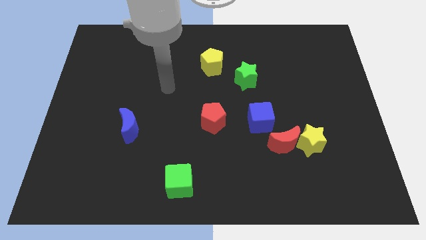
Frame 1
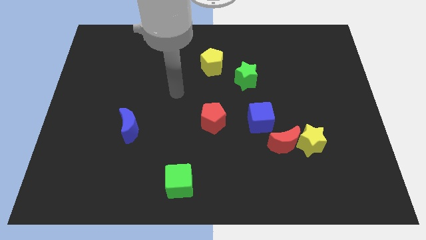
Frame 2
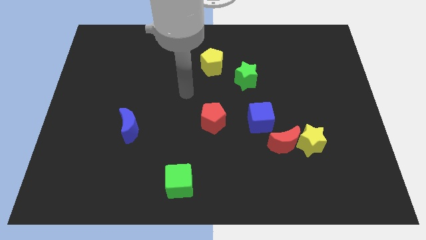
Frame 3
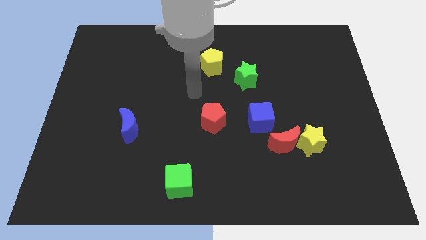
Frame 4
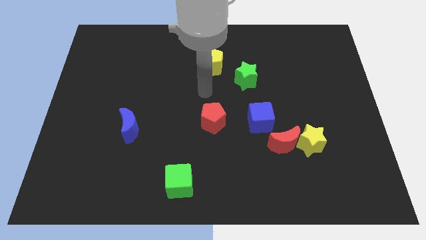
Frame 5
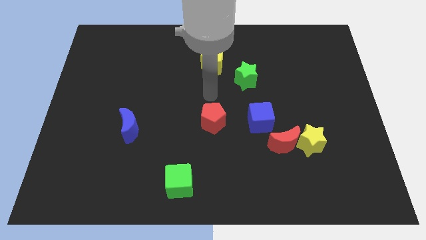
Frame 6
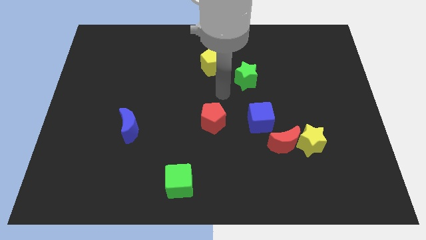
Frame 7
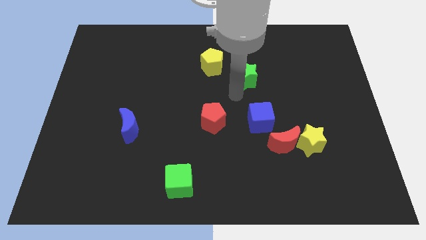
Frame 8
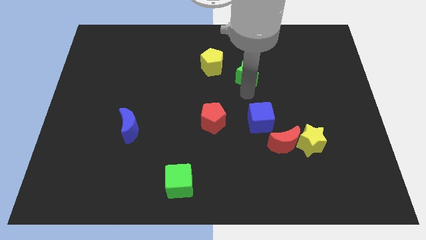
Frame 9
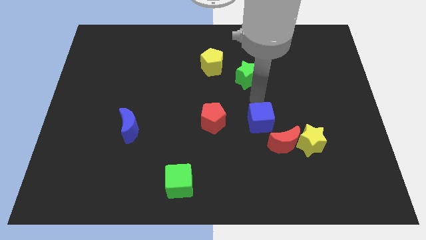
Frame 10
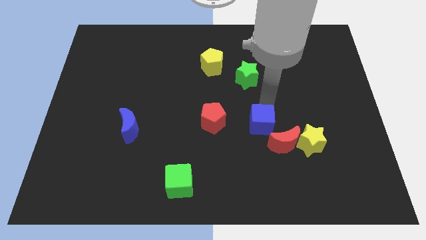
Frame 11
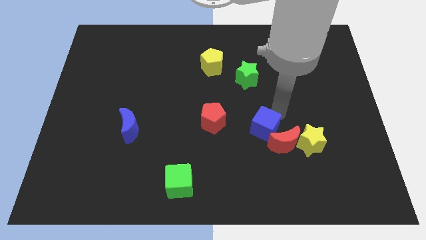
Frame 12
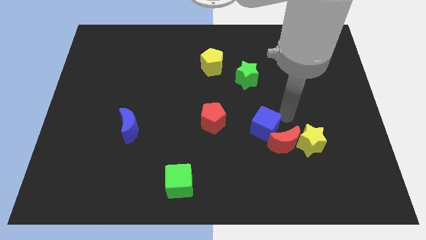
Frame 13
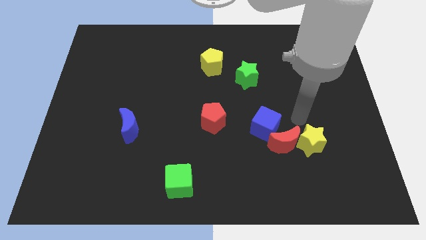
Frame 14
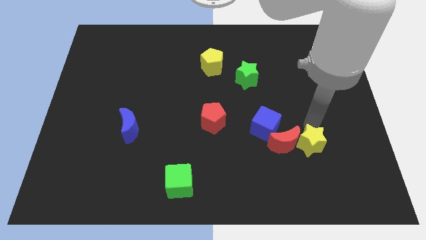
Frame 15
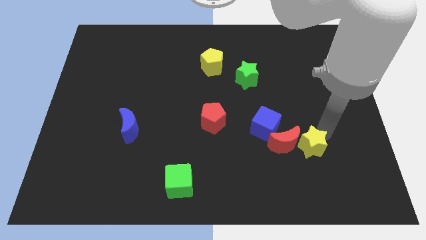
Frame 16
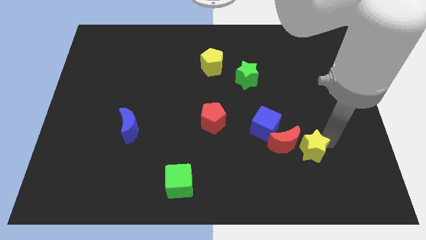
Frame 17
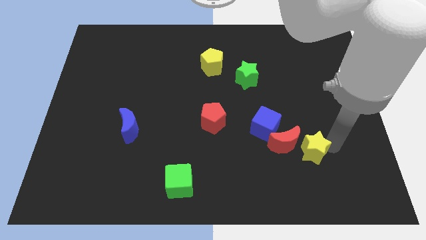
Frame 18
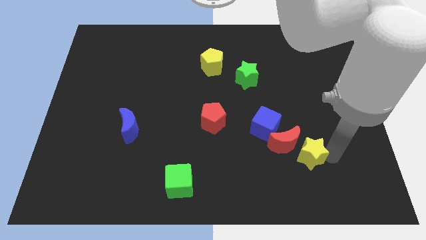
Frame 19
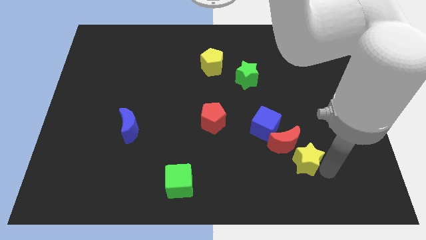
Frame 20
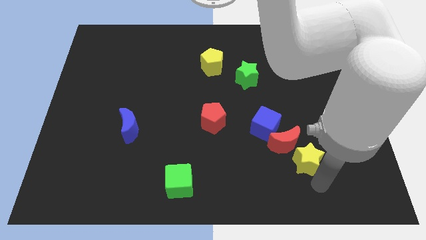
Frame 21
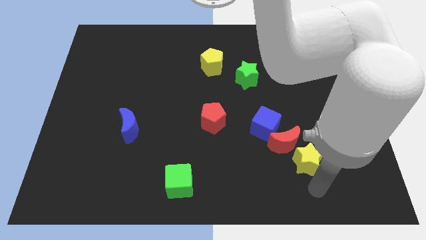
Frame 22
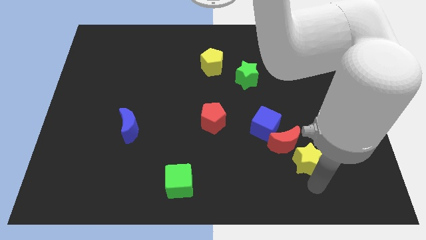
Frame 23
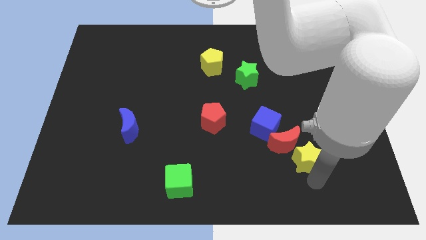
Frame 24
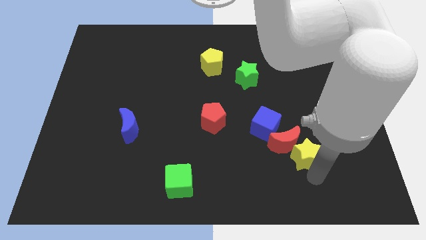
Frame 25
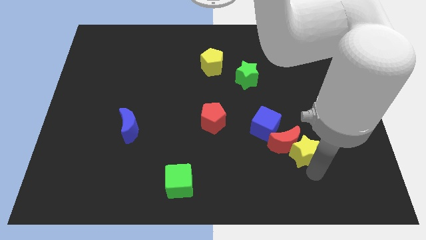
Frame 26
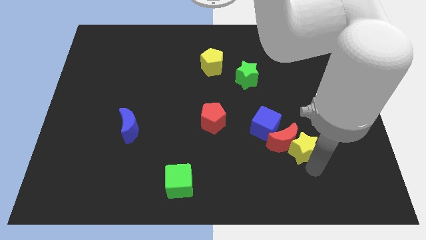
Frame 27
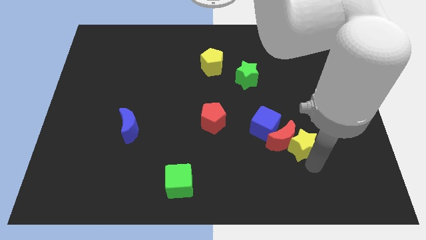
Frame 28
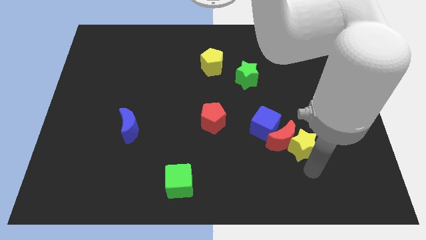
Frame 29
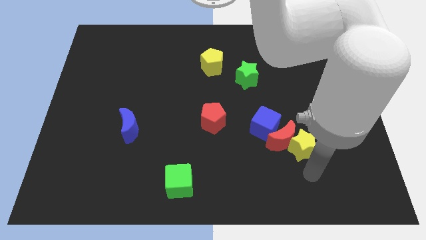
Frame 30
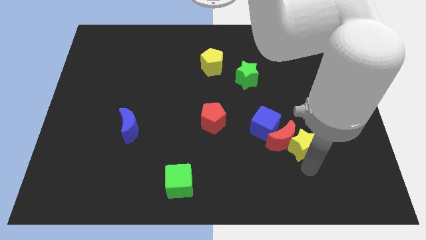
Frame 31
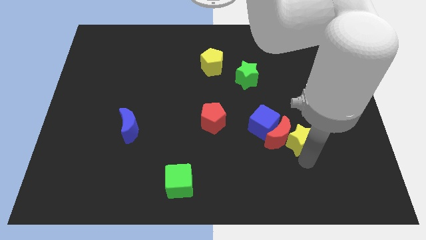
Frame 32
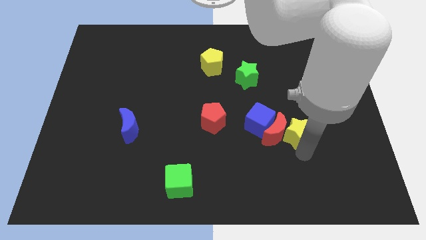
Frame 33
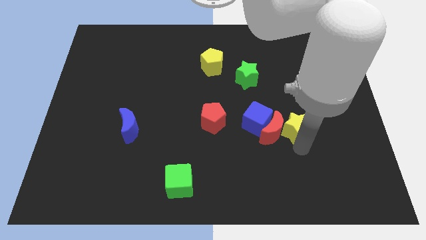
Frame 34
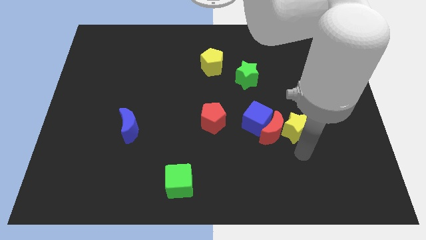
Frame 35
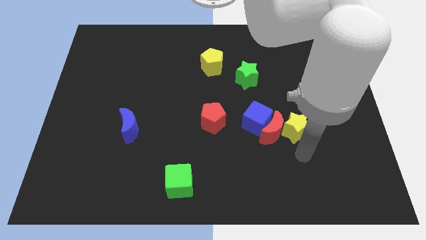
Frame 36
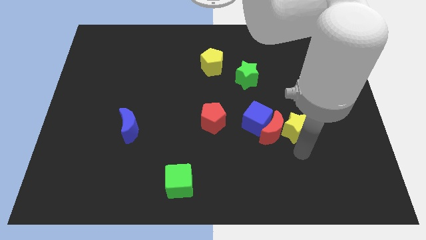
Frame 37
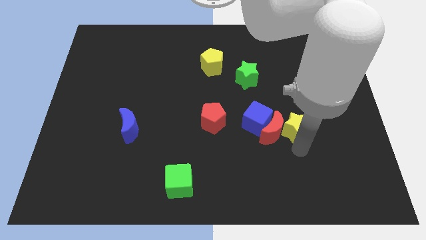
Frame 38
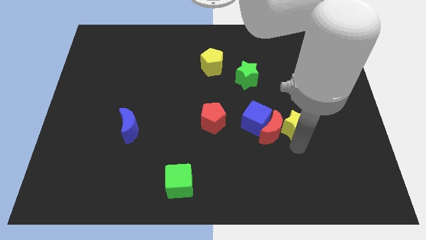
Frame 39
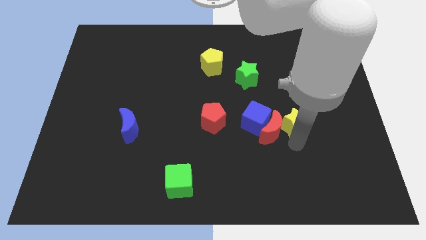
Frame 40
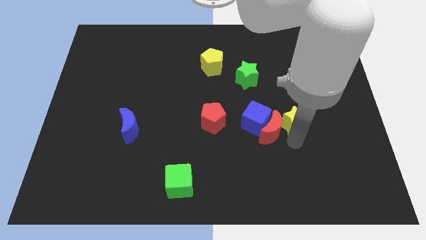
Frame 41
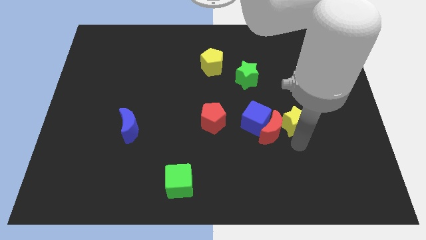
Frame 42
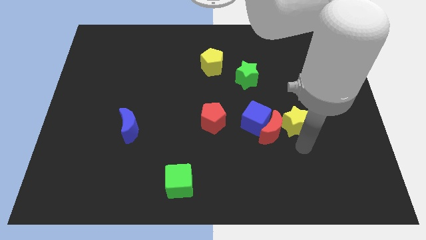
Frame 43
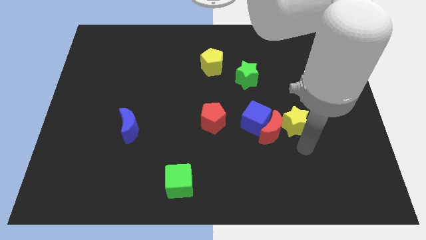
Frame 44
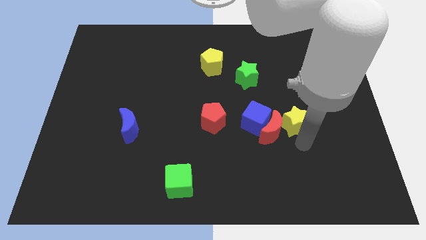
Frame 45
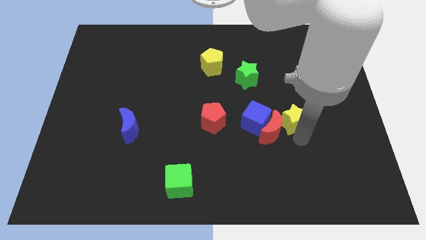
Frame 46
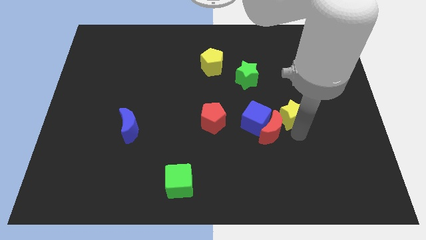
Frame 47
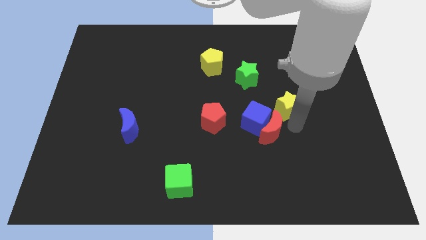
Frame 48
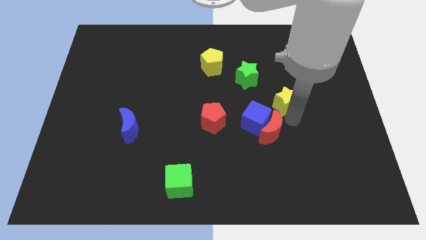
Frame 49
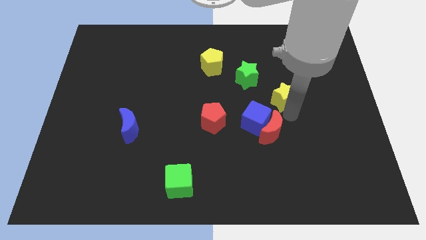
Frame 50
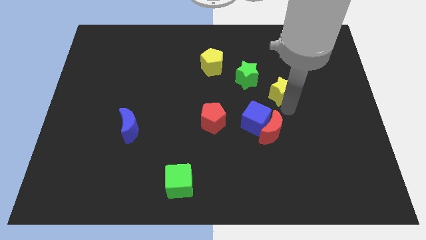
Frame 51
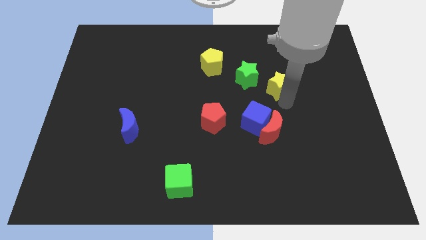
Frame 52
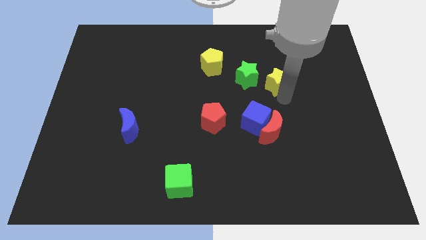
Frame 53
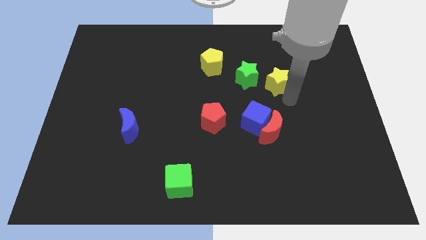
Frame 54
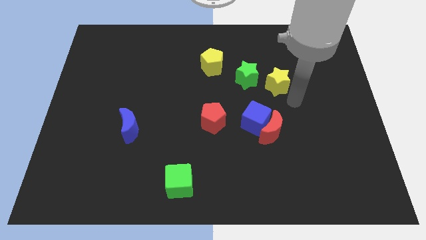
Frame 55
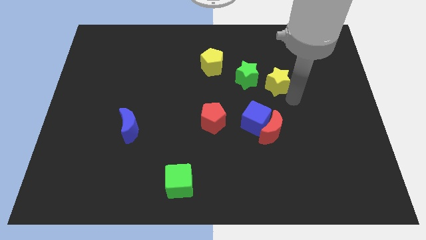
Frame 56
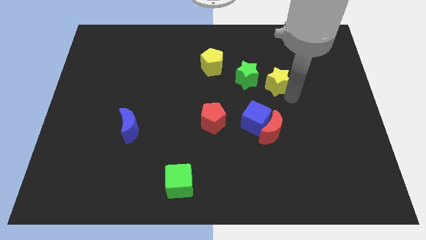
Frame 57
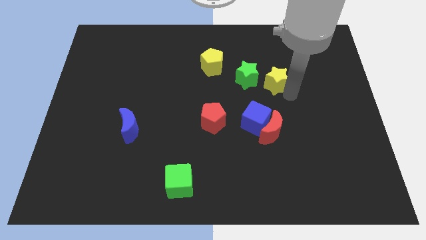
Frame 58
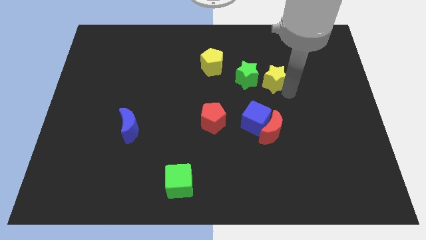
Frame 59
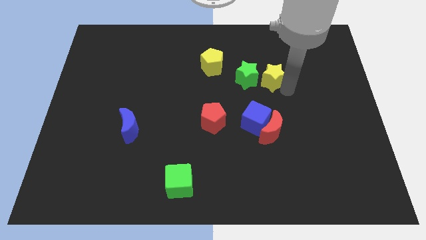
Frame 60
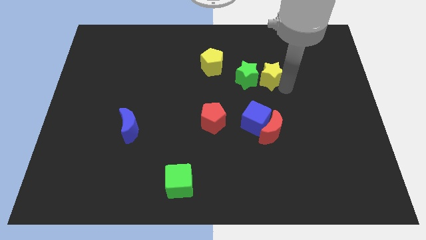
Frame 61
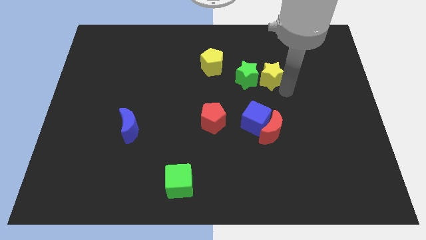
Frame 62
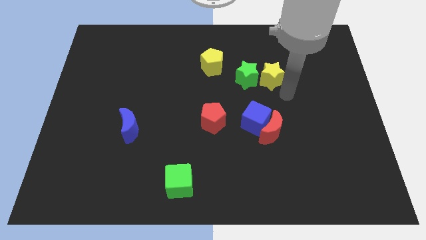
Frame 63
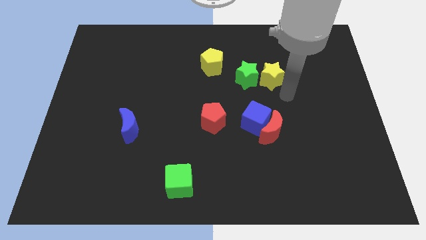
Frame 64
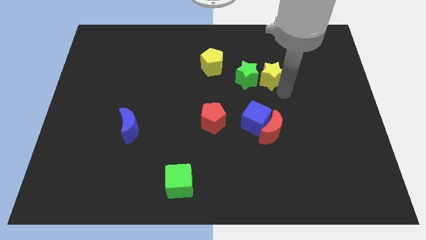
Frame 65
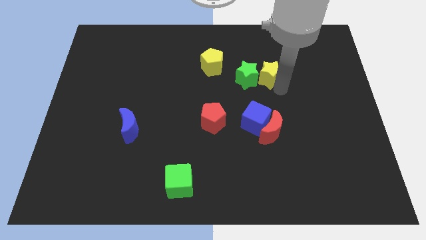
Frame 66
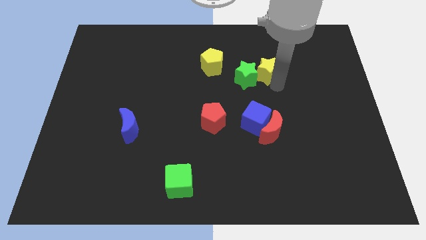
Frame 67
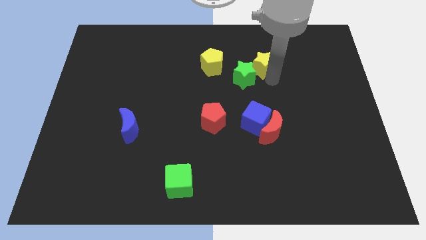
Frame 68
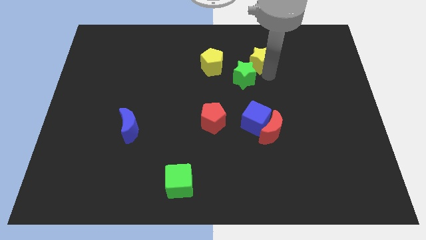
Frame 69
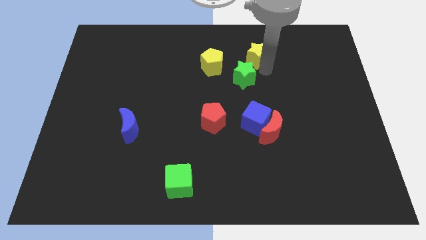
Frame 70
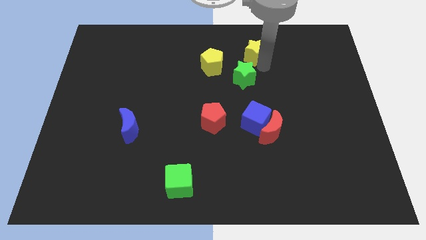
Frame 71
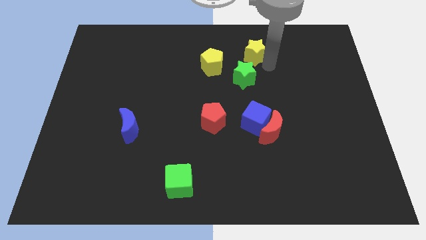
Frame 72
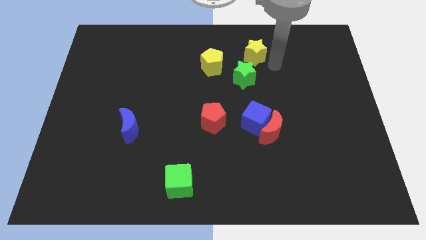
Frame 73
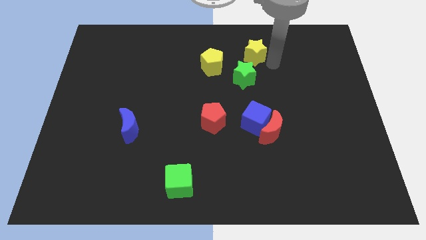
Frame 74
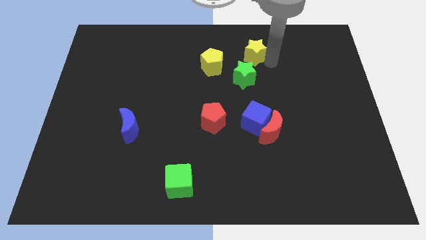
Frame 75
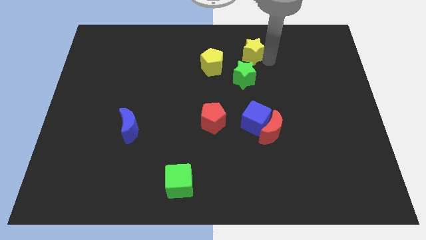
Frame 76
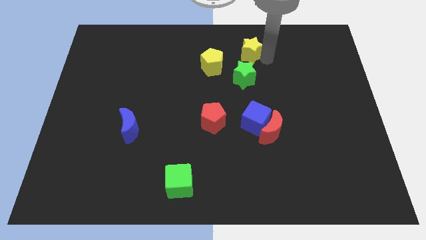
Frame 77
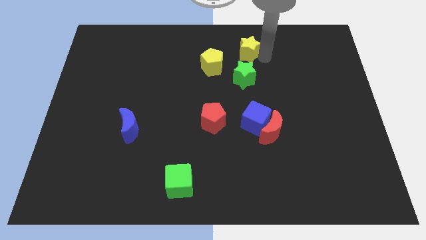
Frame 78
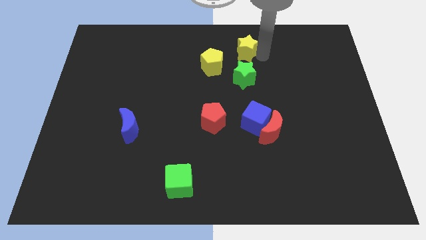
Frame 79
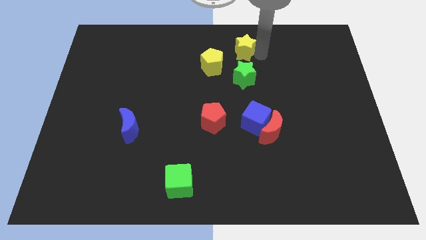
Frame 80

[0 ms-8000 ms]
push the yellow star to the top
